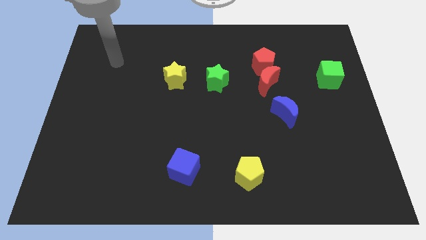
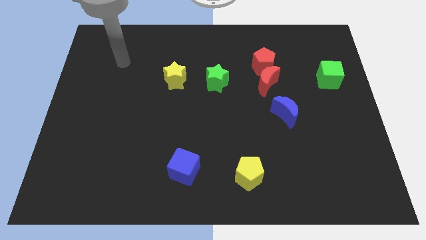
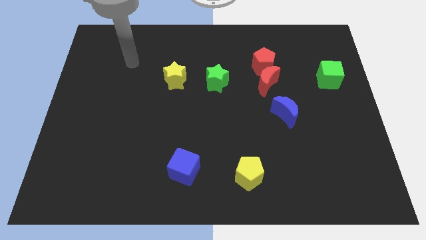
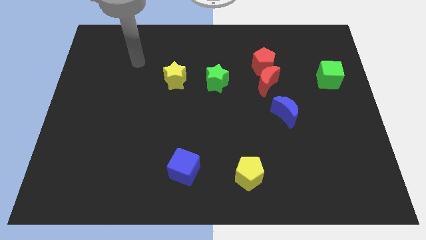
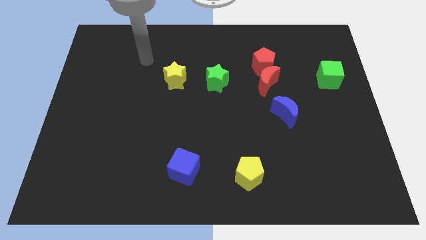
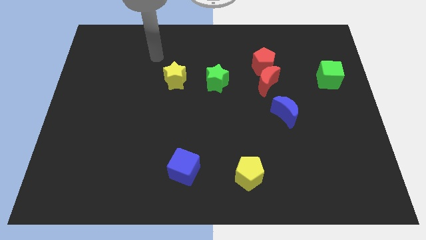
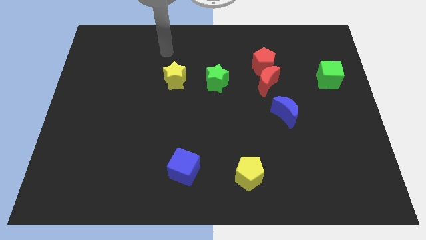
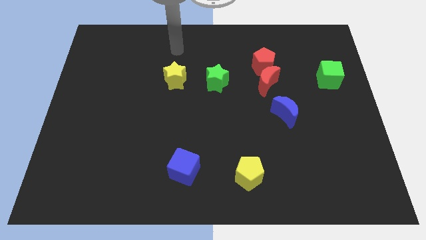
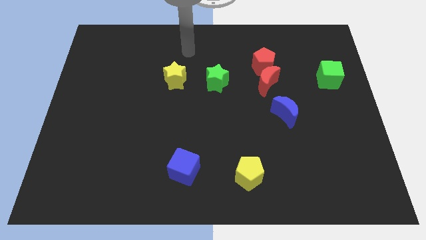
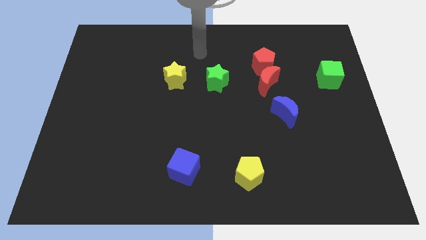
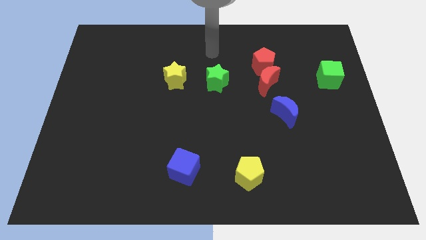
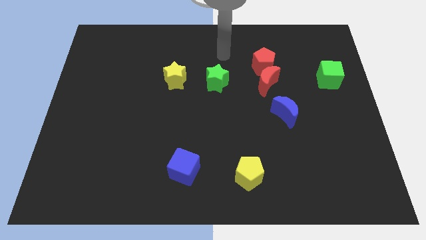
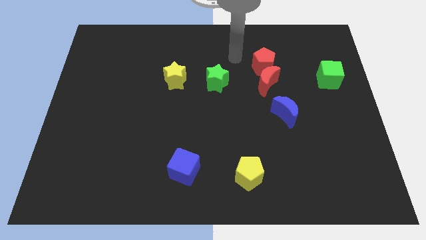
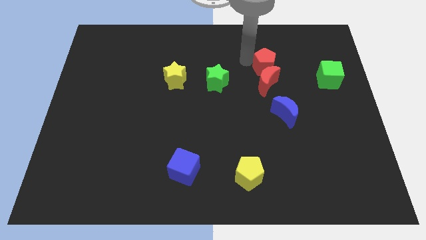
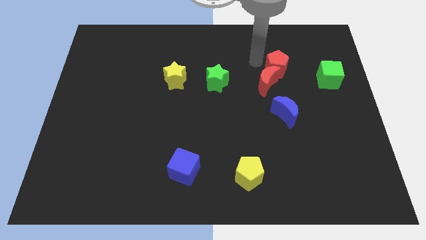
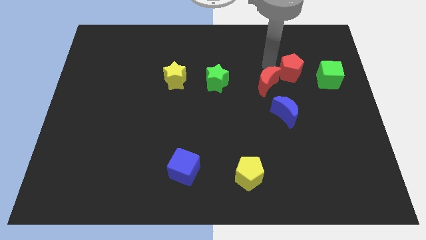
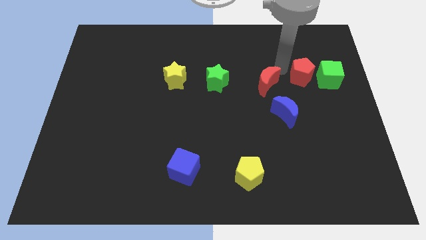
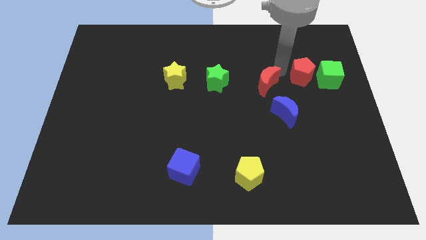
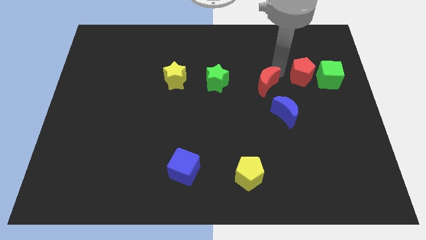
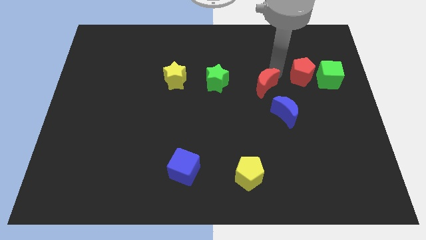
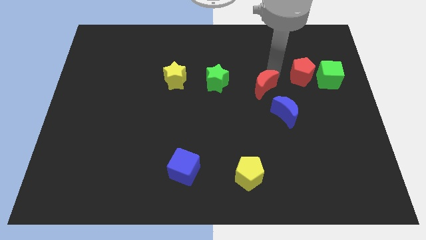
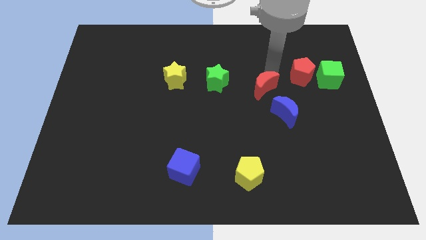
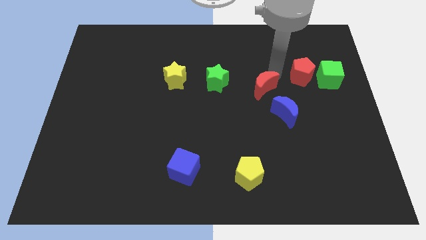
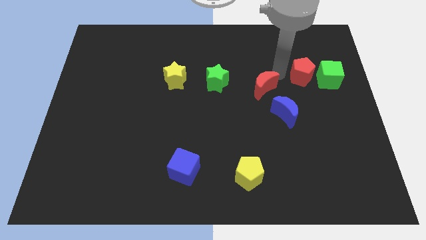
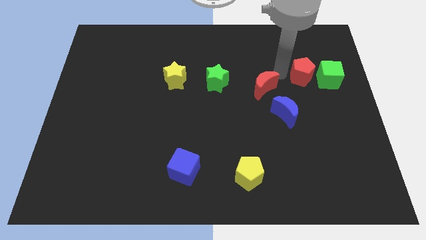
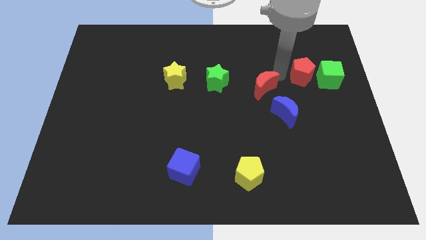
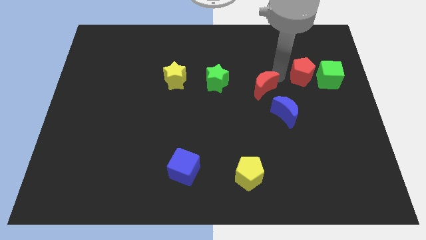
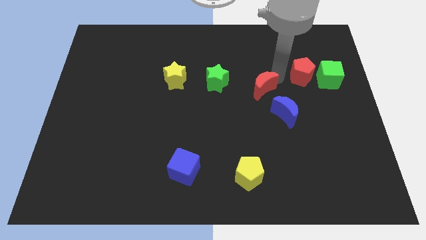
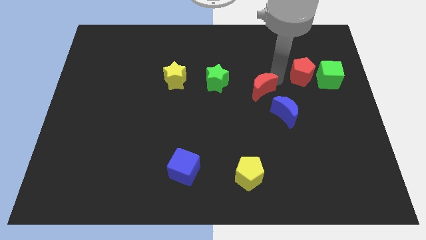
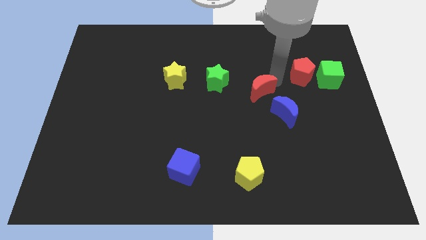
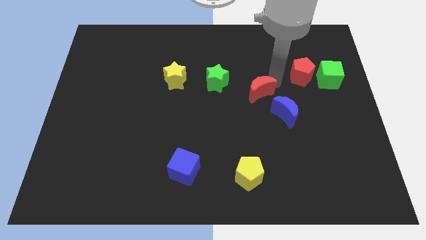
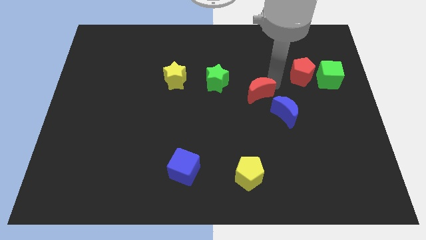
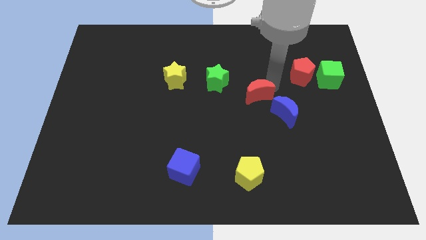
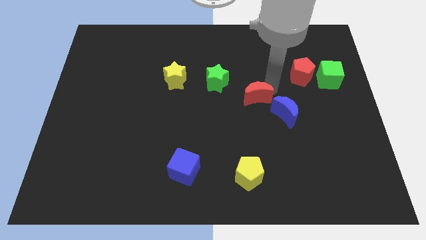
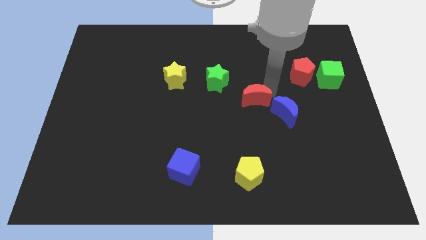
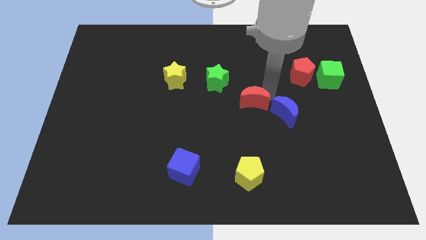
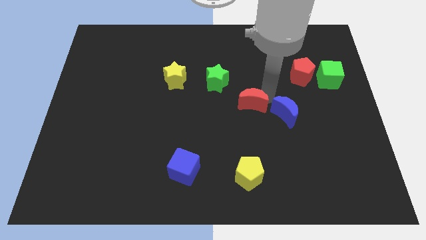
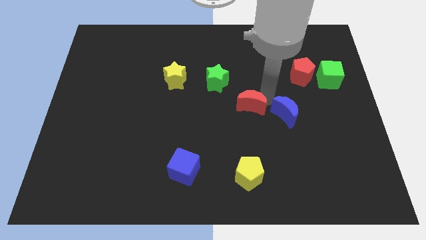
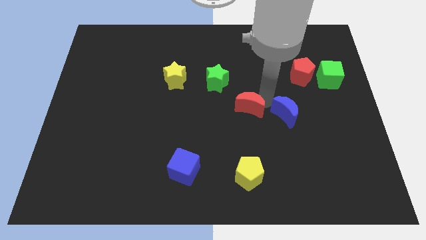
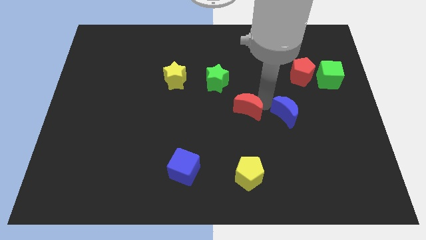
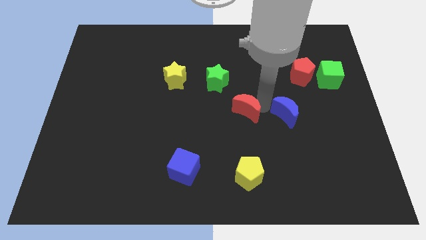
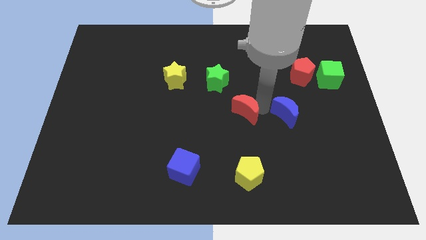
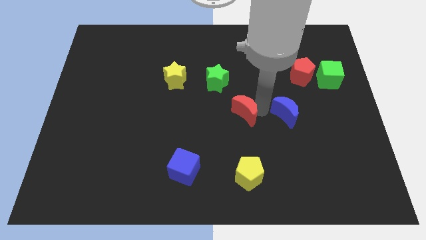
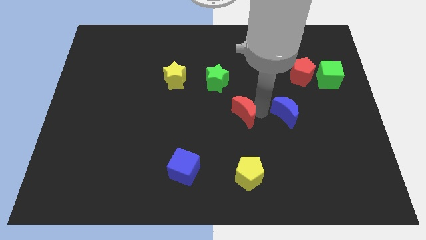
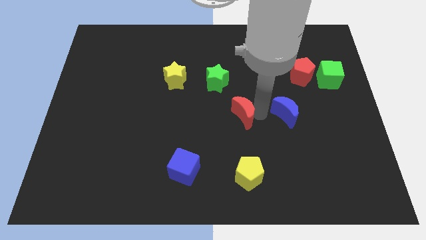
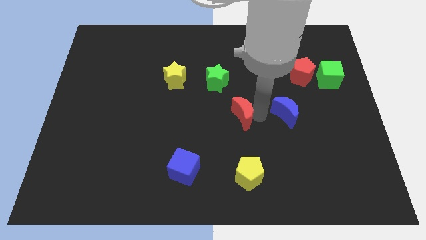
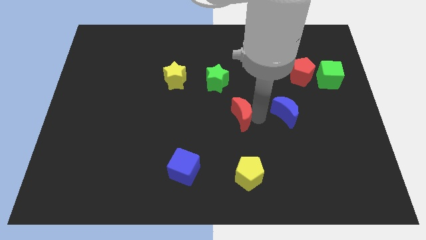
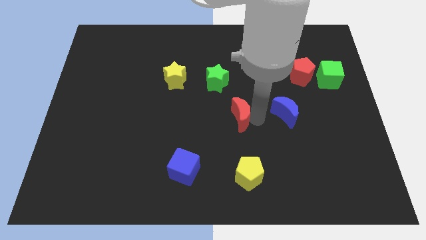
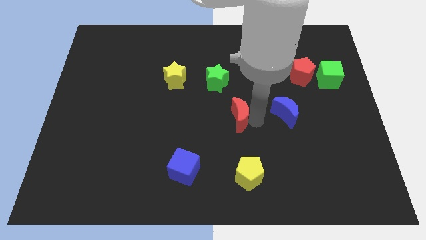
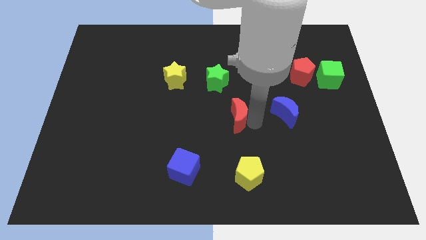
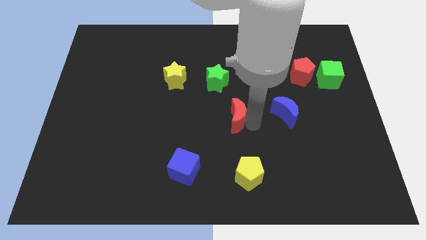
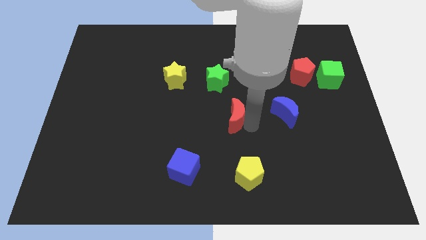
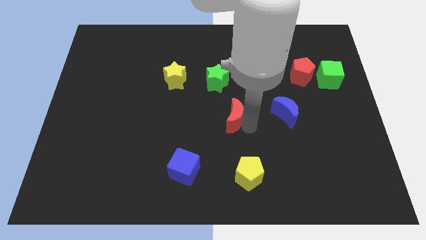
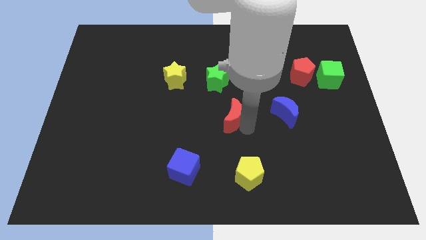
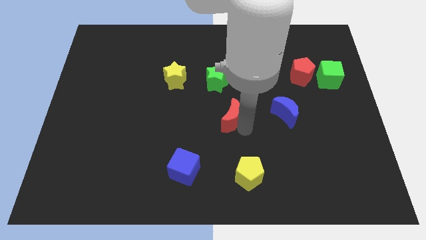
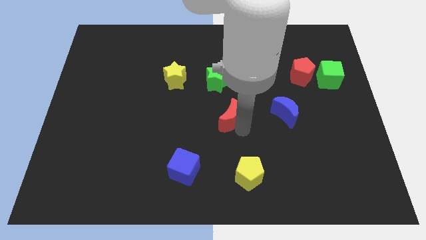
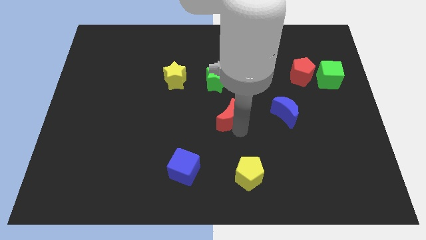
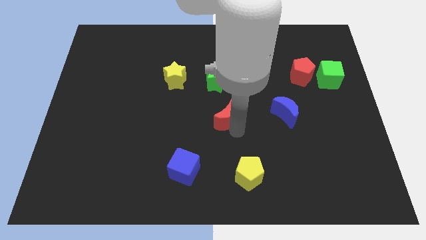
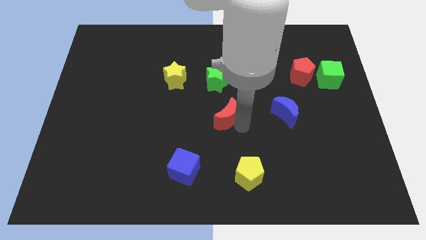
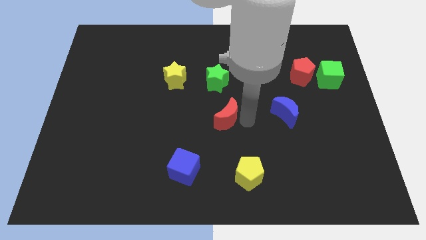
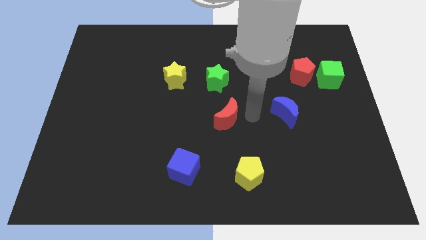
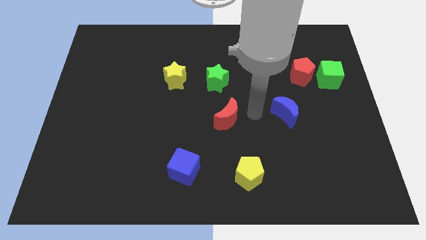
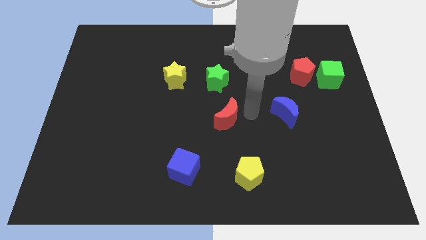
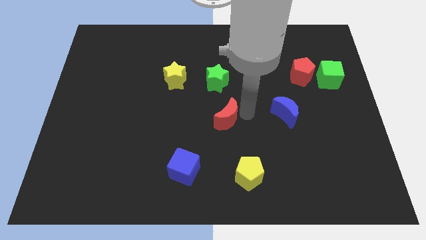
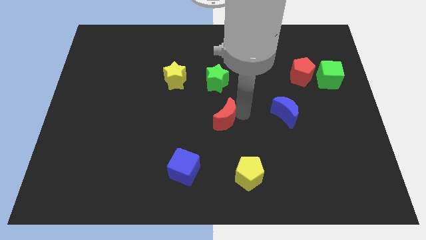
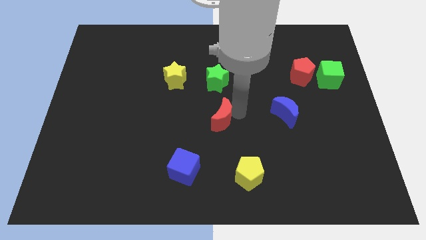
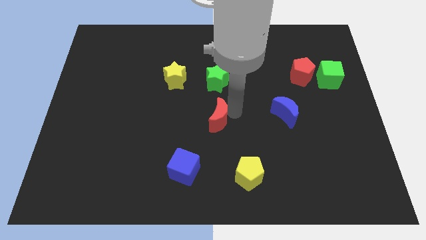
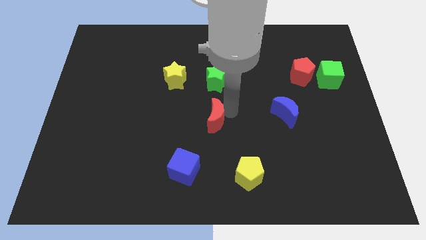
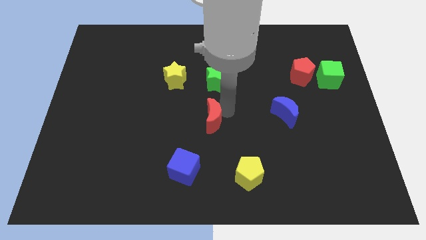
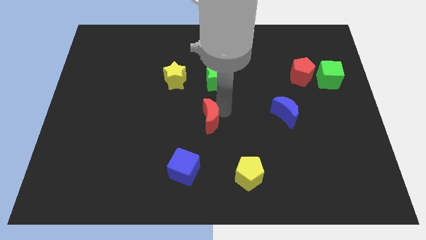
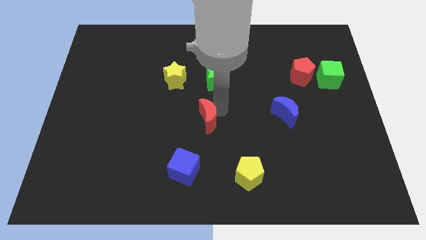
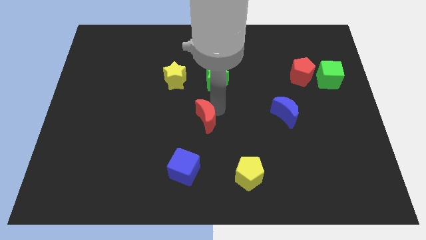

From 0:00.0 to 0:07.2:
slide the red moon to the top of the blue cube
